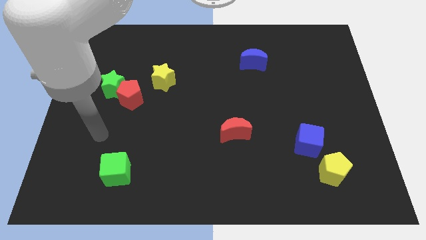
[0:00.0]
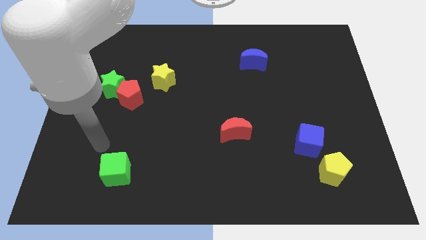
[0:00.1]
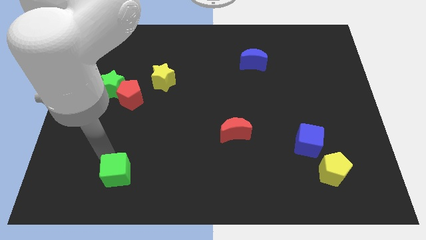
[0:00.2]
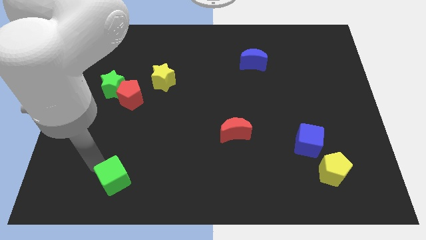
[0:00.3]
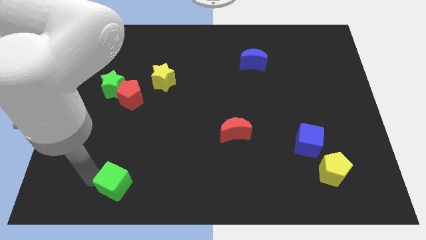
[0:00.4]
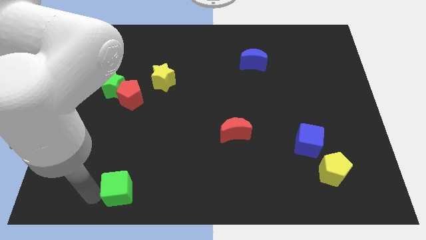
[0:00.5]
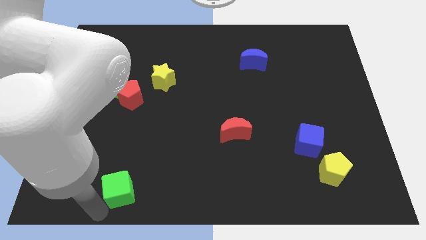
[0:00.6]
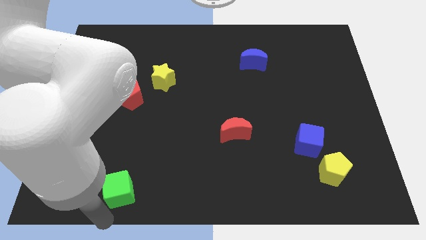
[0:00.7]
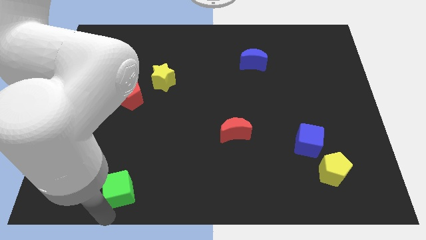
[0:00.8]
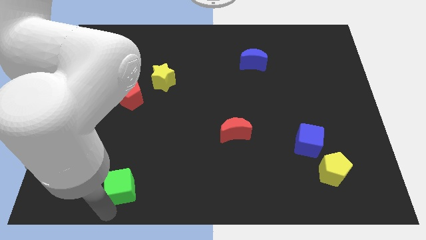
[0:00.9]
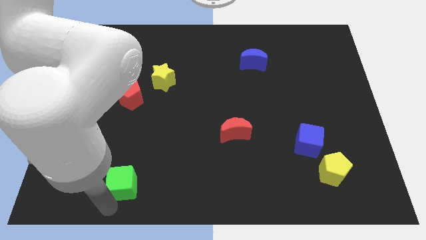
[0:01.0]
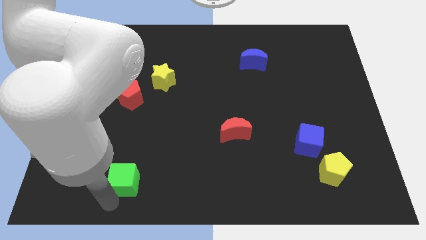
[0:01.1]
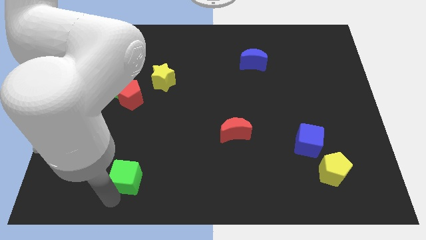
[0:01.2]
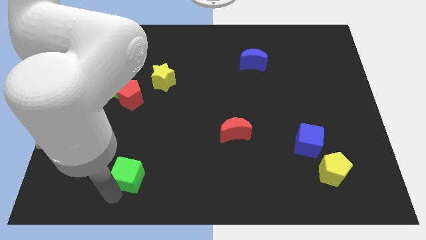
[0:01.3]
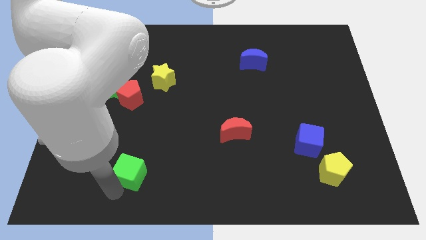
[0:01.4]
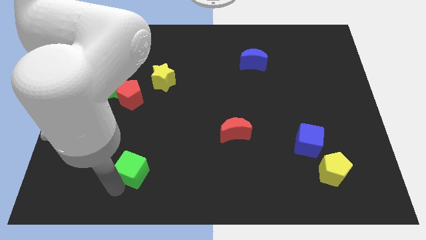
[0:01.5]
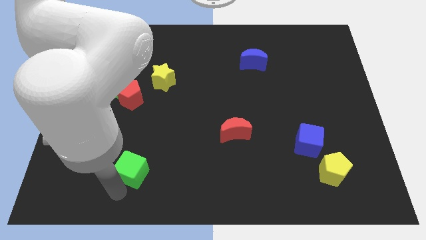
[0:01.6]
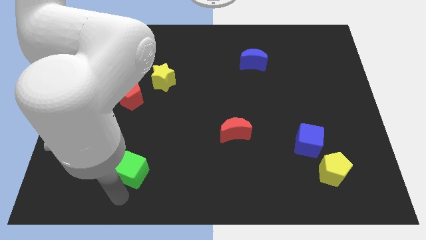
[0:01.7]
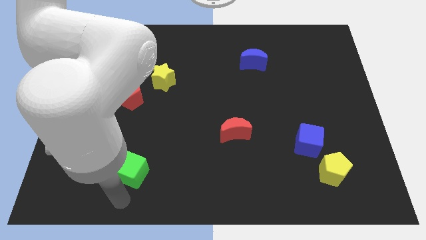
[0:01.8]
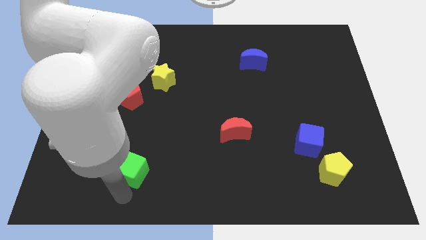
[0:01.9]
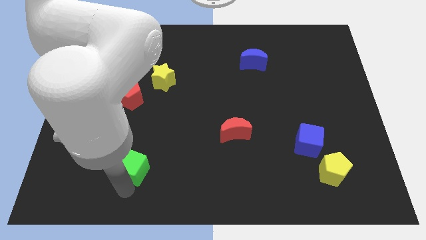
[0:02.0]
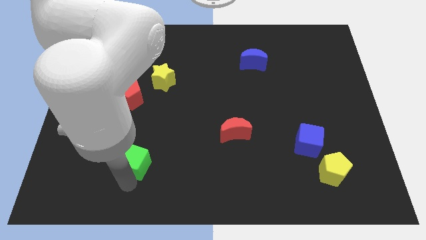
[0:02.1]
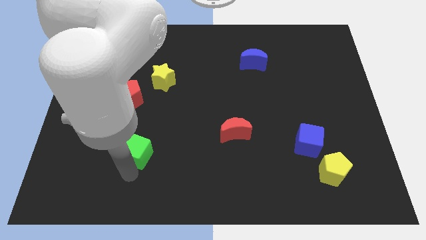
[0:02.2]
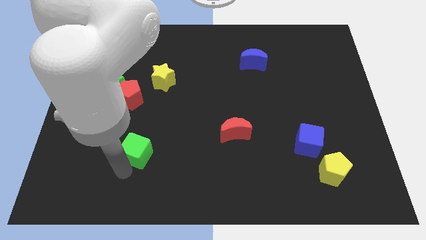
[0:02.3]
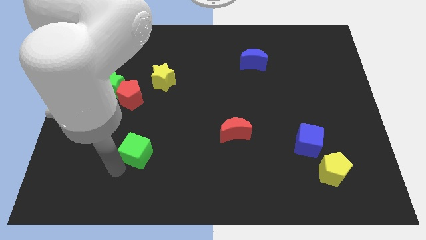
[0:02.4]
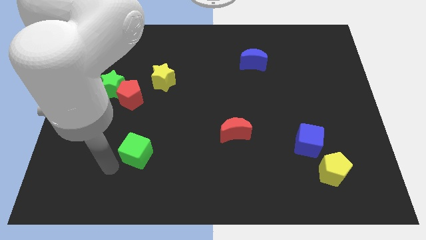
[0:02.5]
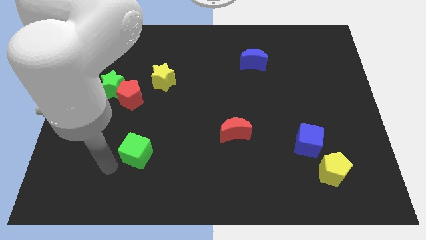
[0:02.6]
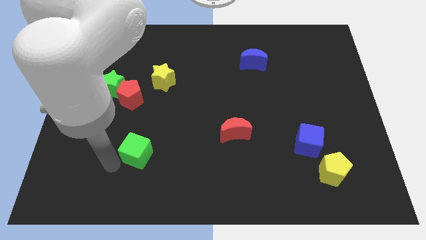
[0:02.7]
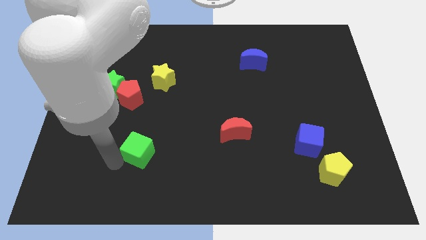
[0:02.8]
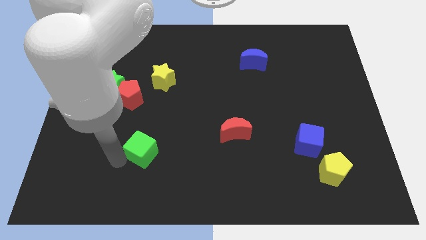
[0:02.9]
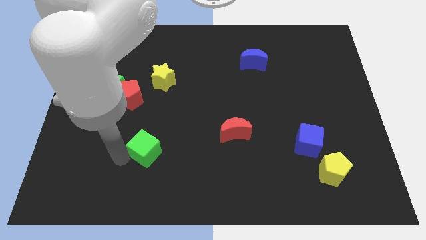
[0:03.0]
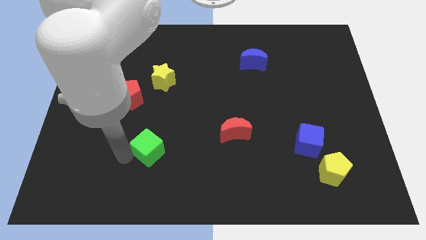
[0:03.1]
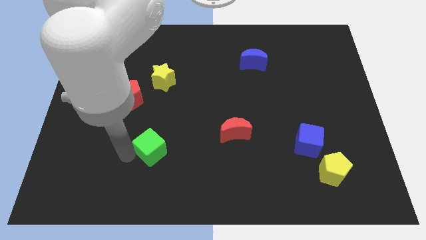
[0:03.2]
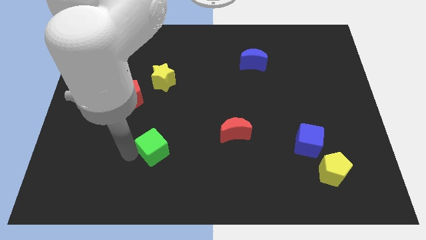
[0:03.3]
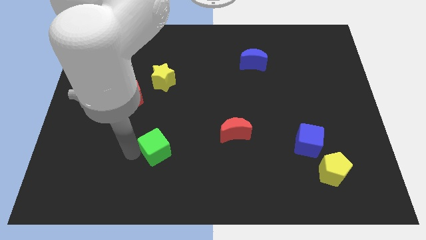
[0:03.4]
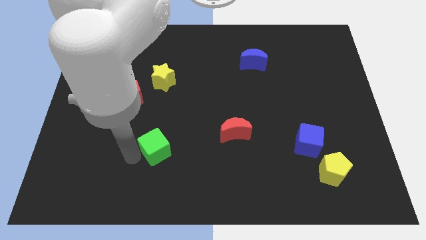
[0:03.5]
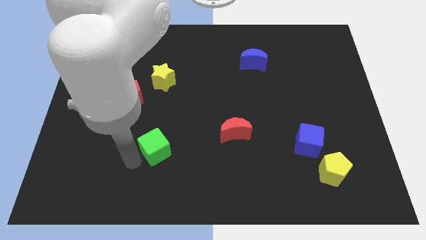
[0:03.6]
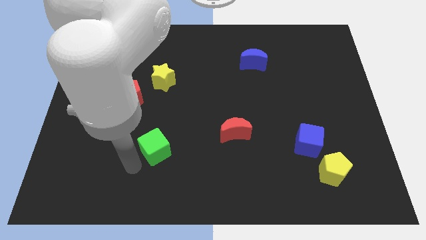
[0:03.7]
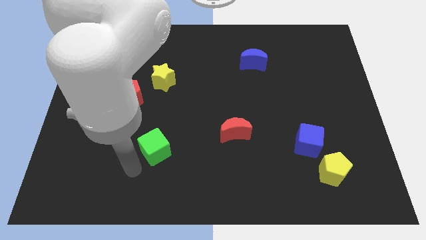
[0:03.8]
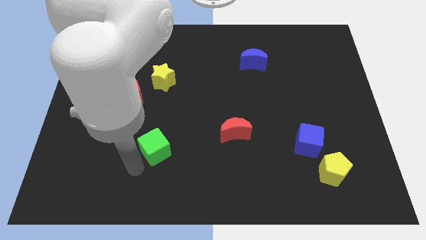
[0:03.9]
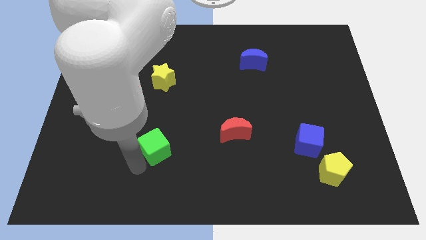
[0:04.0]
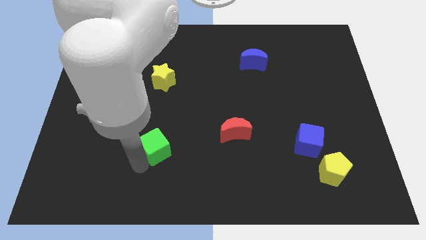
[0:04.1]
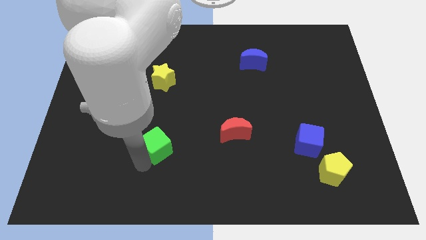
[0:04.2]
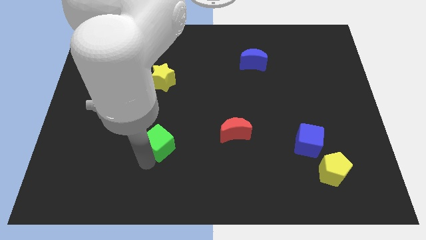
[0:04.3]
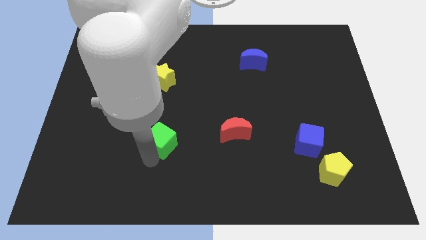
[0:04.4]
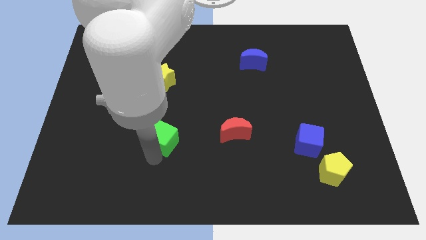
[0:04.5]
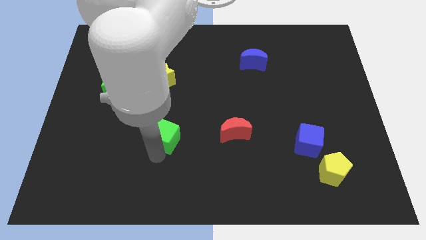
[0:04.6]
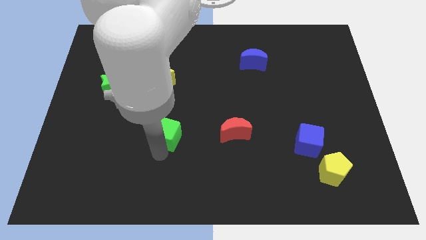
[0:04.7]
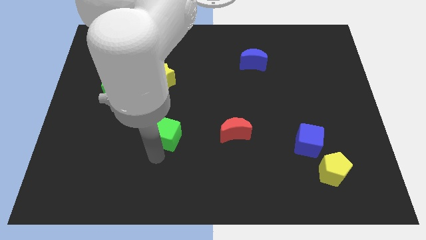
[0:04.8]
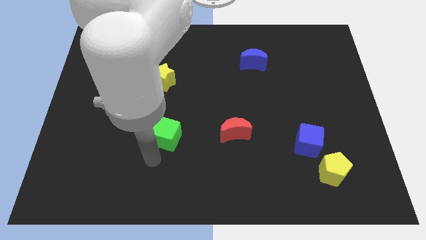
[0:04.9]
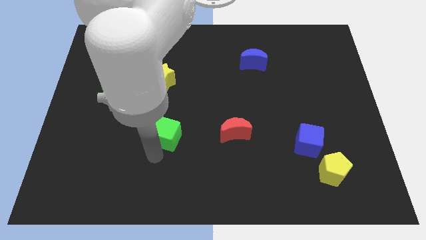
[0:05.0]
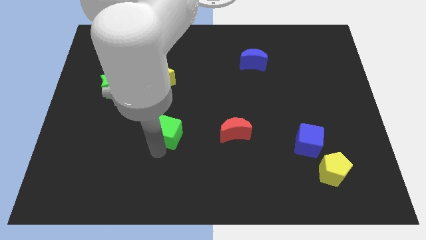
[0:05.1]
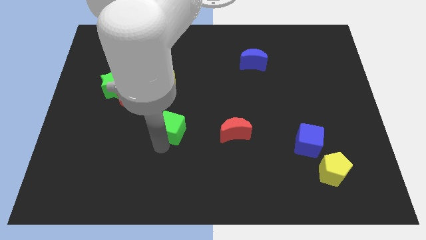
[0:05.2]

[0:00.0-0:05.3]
move the green cube to the center of the board
